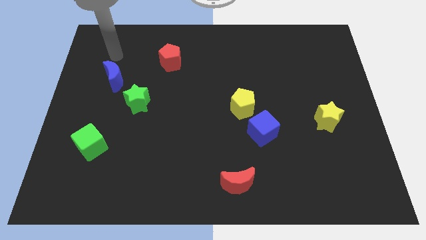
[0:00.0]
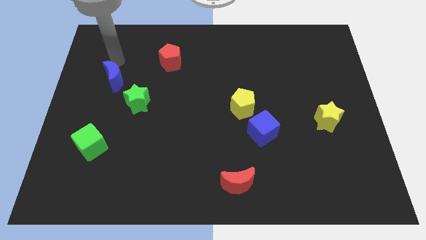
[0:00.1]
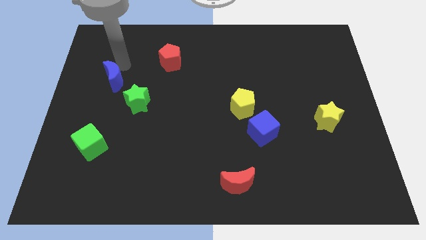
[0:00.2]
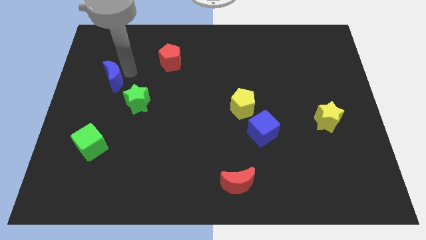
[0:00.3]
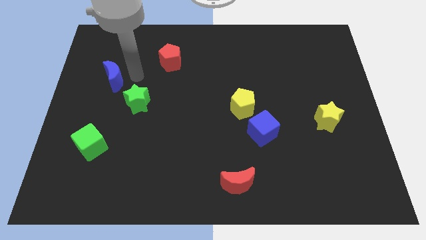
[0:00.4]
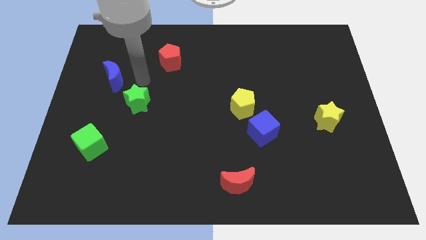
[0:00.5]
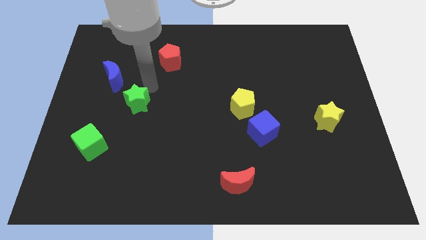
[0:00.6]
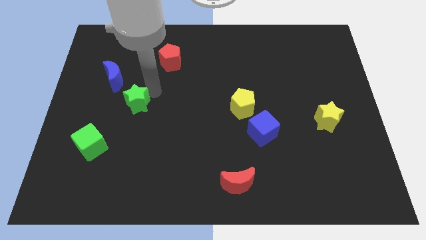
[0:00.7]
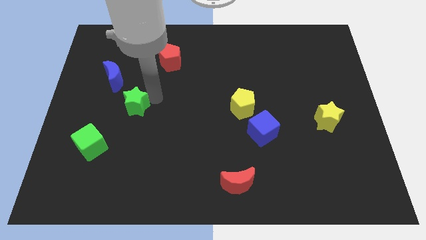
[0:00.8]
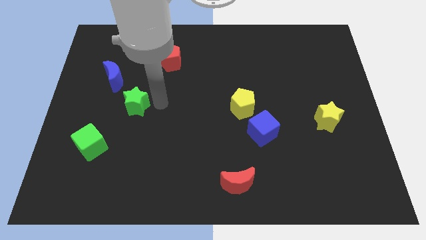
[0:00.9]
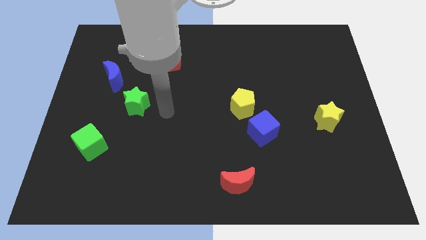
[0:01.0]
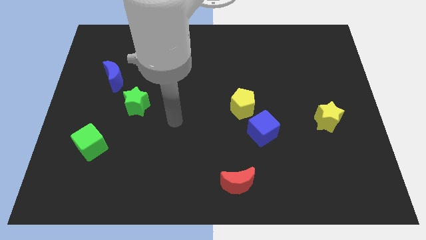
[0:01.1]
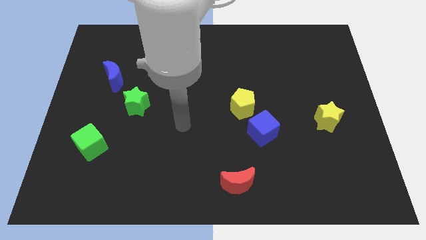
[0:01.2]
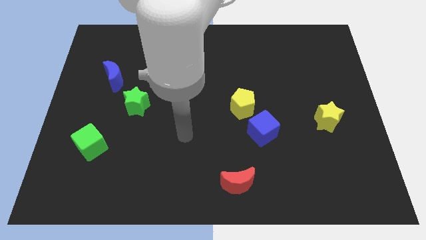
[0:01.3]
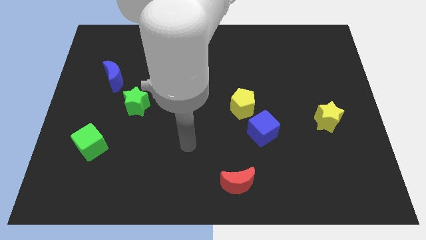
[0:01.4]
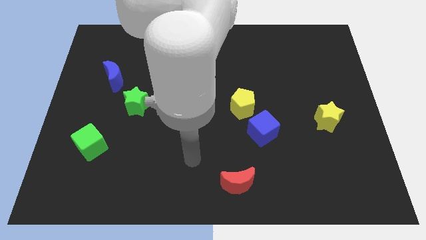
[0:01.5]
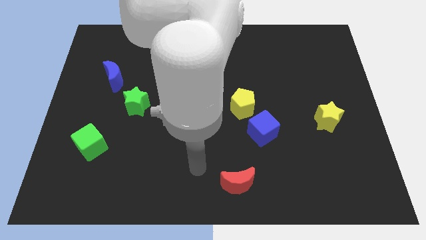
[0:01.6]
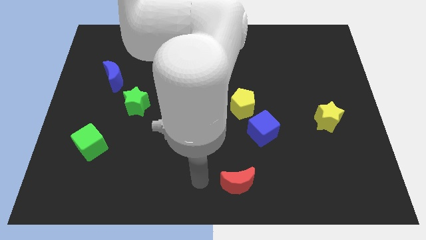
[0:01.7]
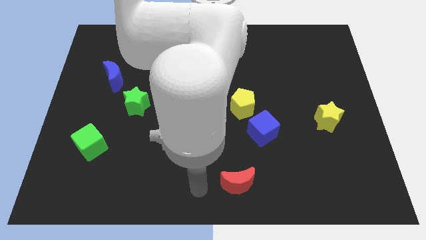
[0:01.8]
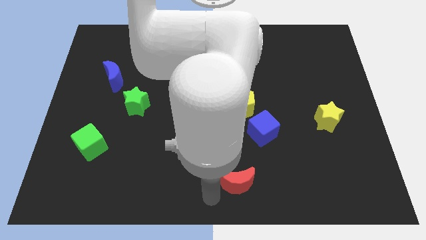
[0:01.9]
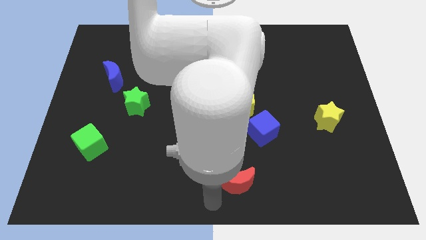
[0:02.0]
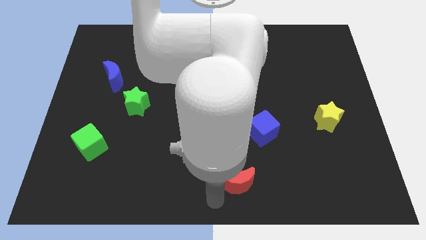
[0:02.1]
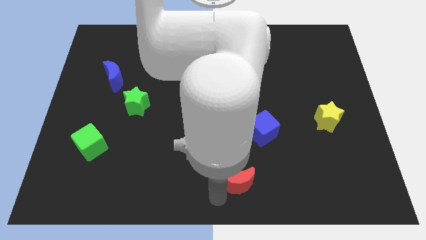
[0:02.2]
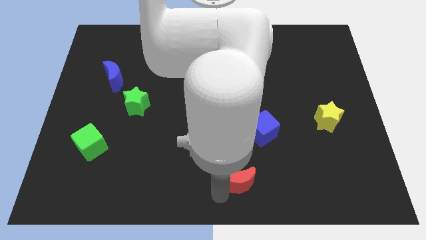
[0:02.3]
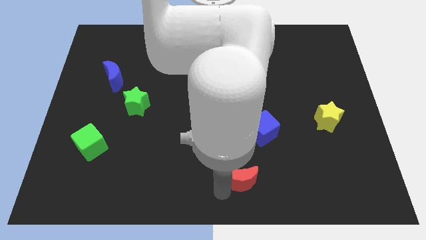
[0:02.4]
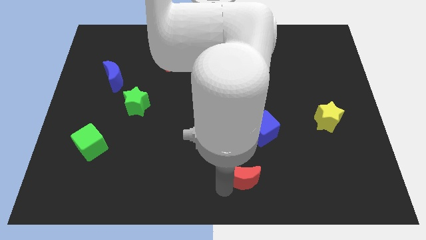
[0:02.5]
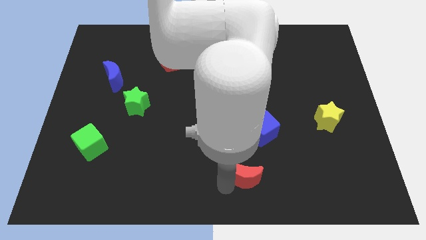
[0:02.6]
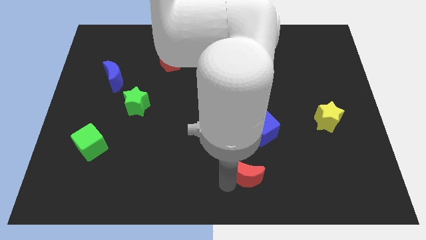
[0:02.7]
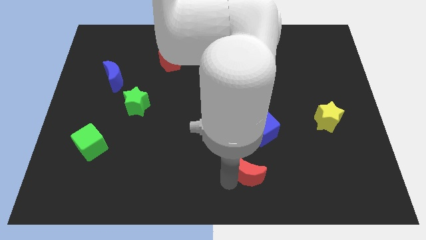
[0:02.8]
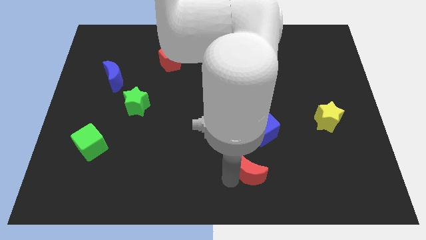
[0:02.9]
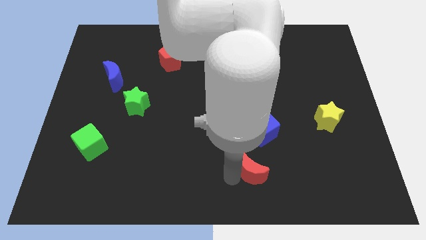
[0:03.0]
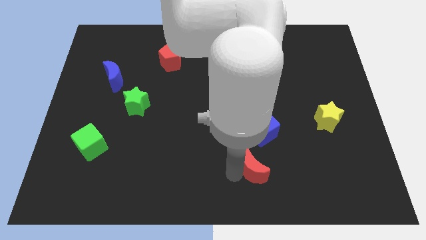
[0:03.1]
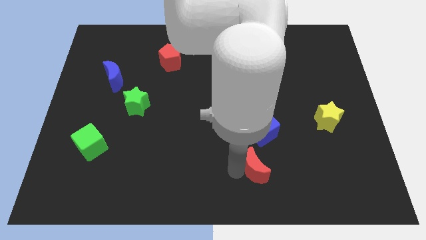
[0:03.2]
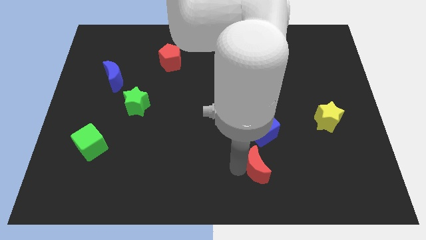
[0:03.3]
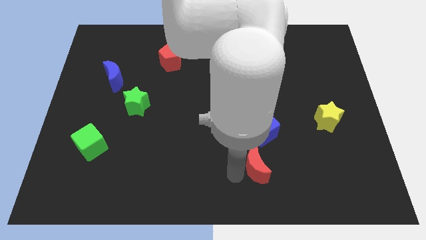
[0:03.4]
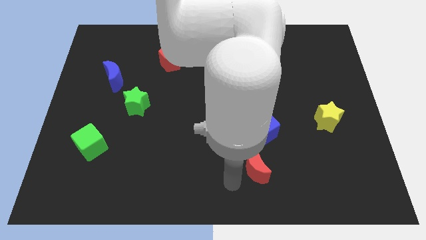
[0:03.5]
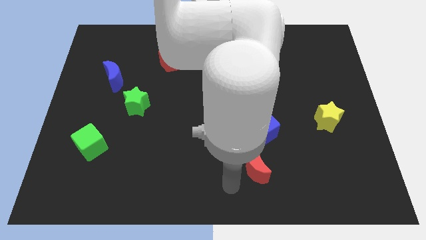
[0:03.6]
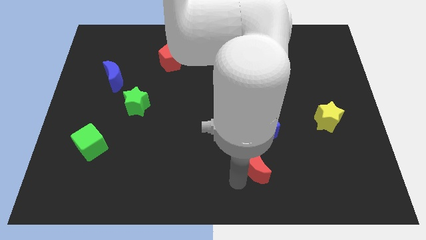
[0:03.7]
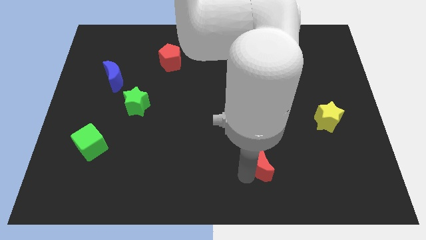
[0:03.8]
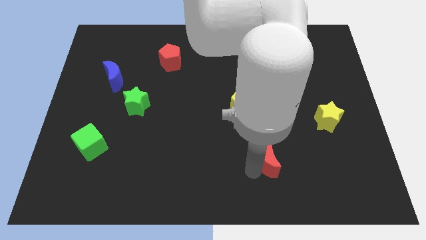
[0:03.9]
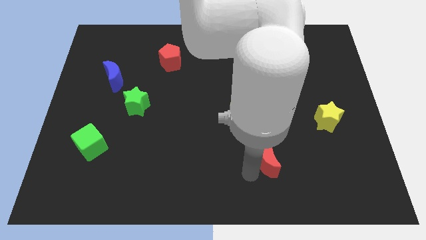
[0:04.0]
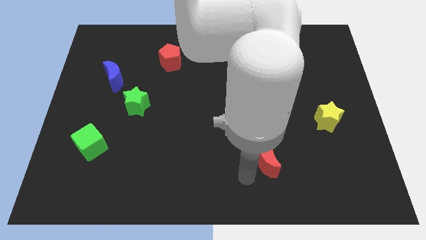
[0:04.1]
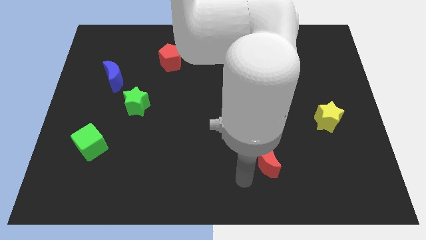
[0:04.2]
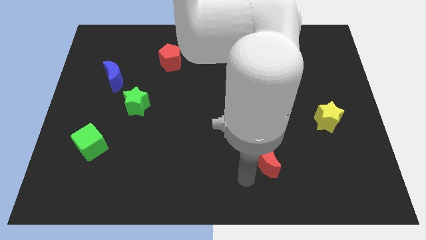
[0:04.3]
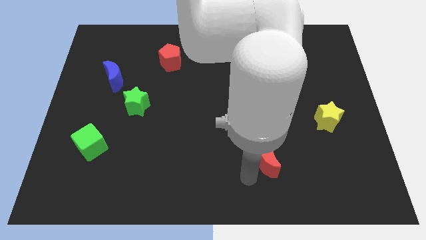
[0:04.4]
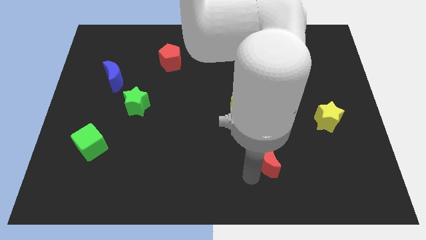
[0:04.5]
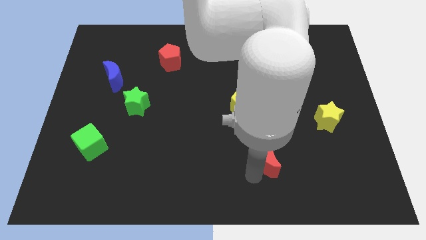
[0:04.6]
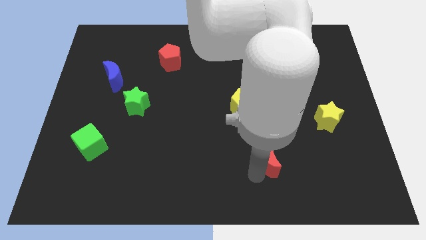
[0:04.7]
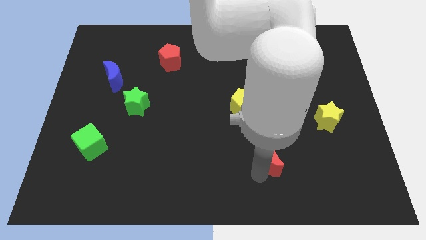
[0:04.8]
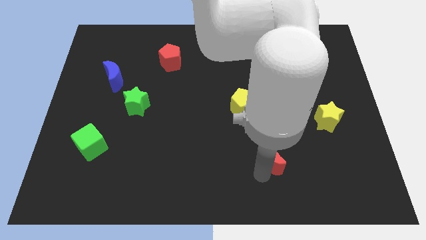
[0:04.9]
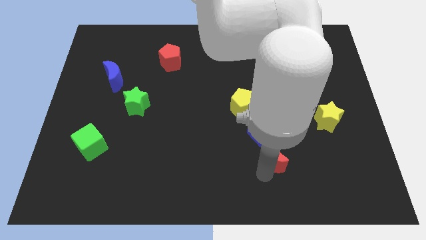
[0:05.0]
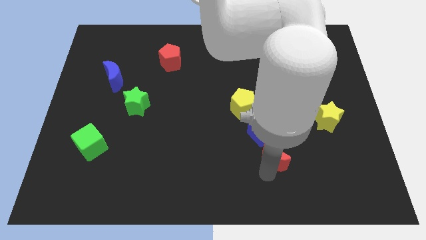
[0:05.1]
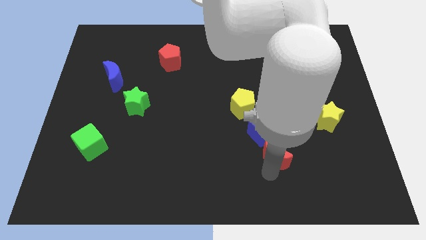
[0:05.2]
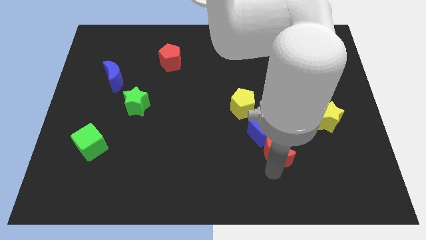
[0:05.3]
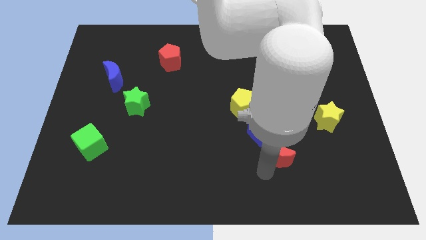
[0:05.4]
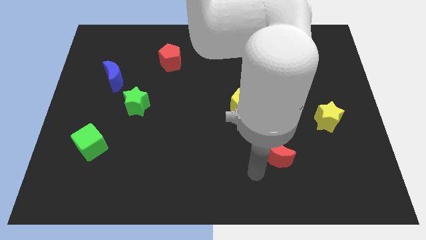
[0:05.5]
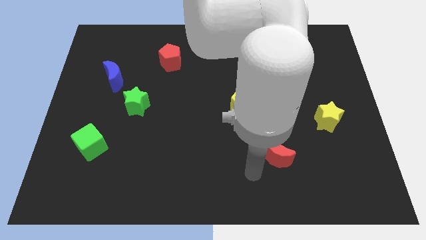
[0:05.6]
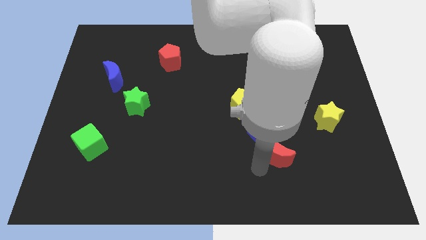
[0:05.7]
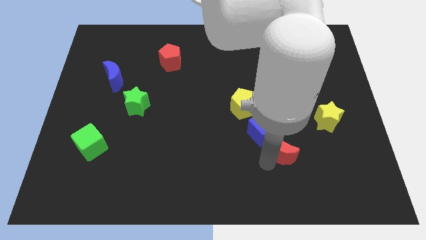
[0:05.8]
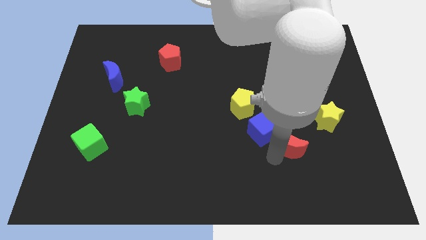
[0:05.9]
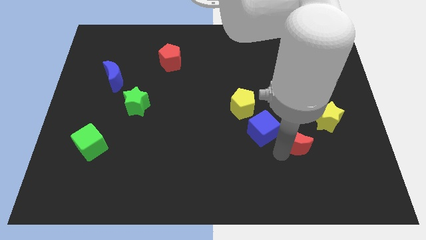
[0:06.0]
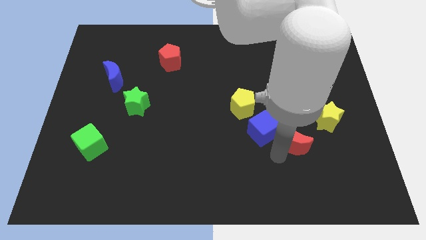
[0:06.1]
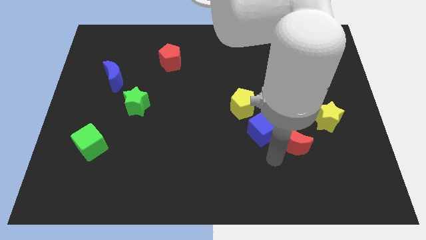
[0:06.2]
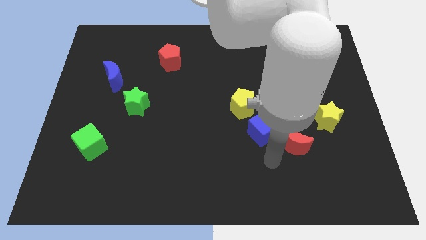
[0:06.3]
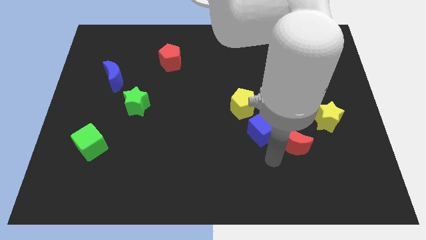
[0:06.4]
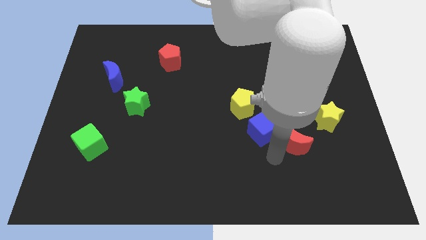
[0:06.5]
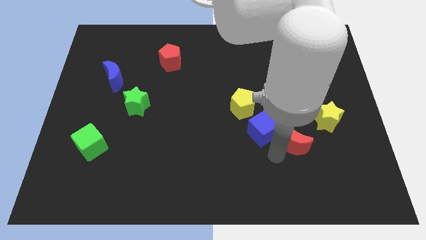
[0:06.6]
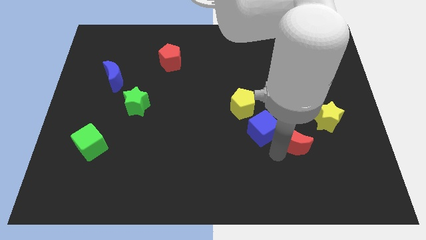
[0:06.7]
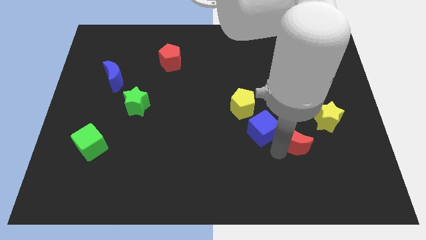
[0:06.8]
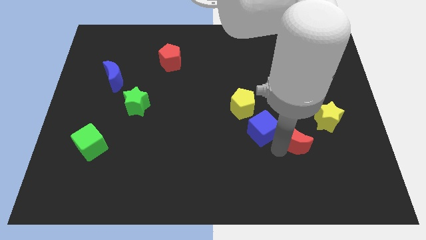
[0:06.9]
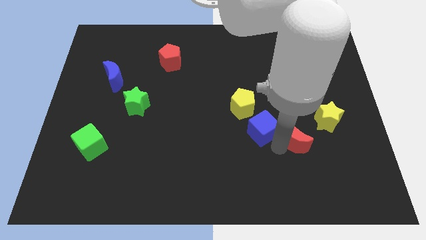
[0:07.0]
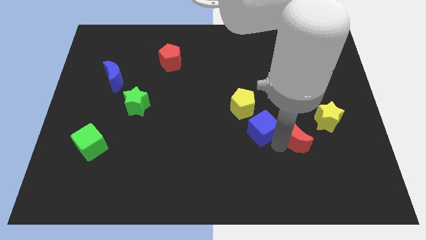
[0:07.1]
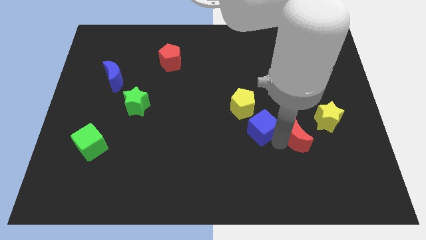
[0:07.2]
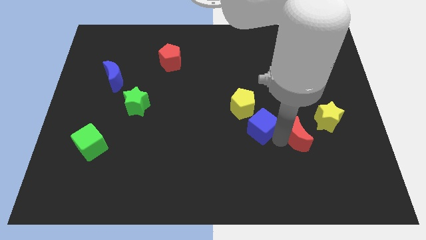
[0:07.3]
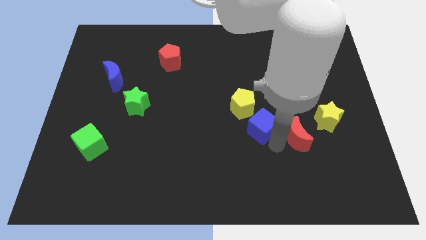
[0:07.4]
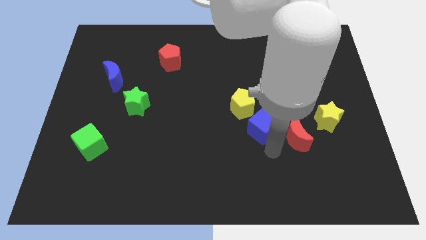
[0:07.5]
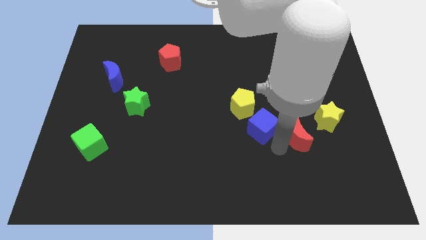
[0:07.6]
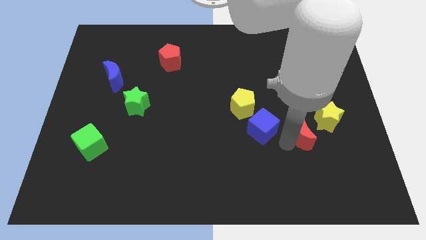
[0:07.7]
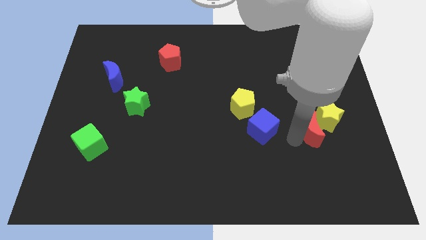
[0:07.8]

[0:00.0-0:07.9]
move the red moon next to the yellow star
